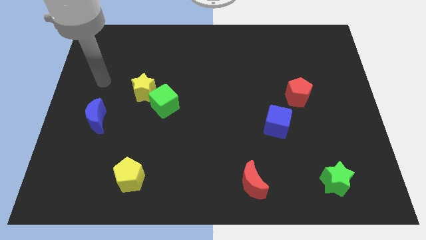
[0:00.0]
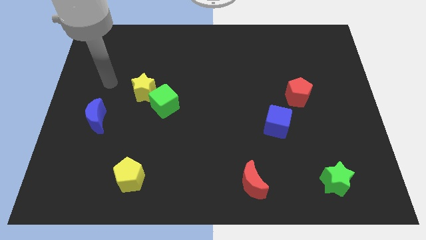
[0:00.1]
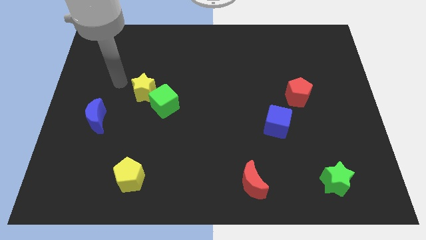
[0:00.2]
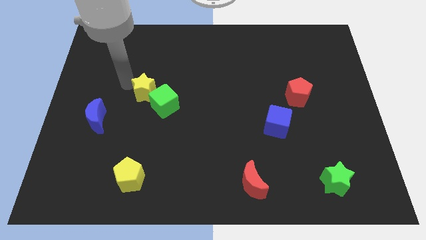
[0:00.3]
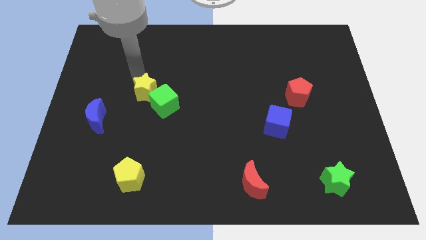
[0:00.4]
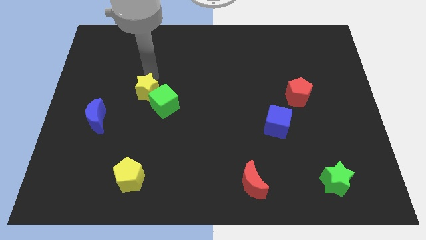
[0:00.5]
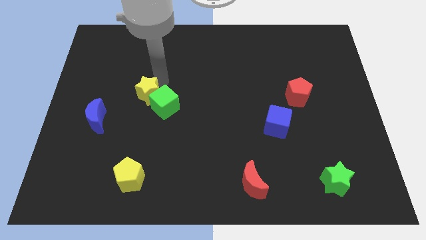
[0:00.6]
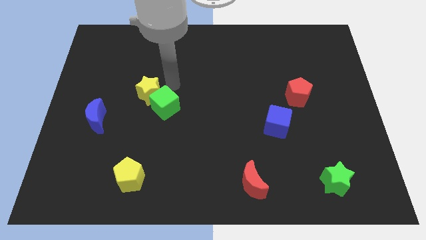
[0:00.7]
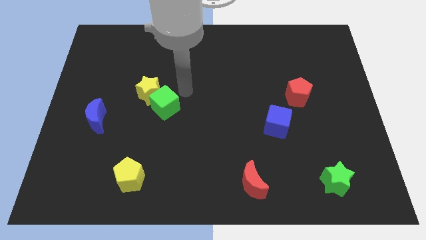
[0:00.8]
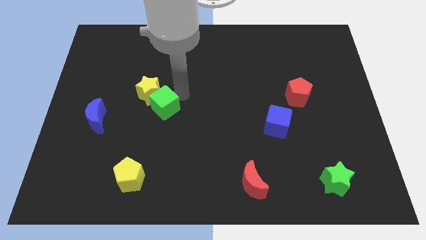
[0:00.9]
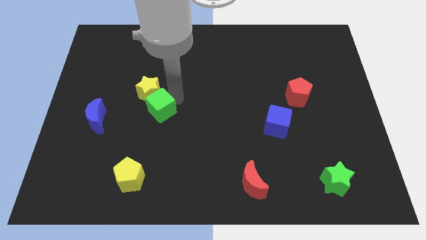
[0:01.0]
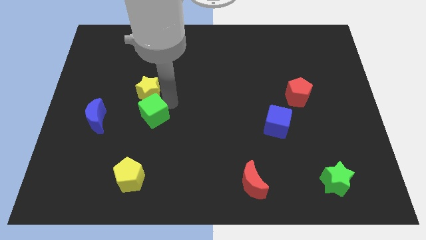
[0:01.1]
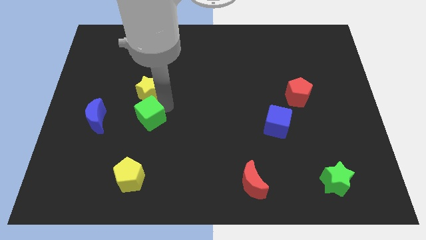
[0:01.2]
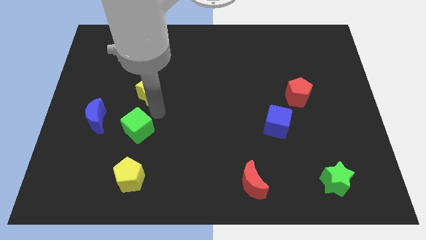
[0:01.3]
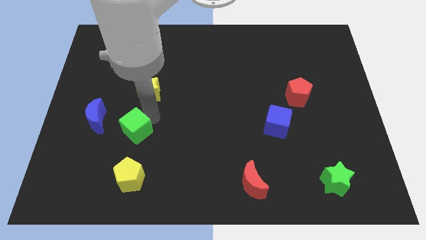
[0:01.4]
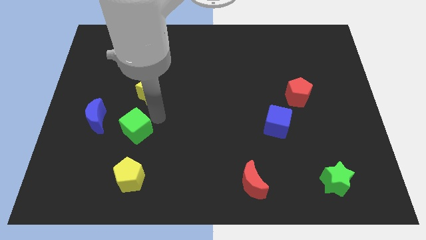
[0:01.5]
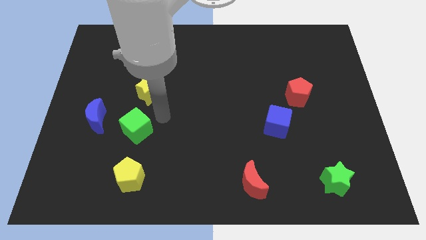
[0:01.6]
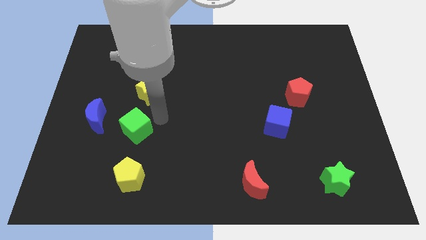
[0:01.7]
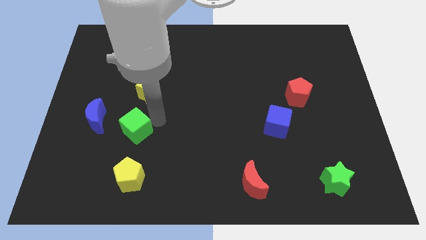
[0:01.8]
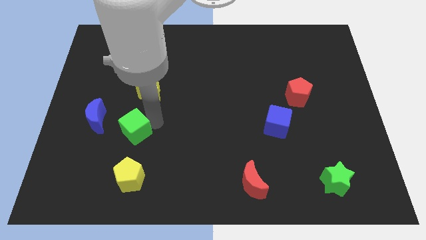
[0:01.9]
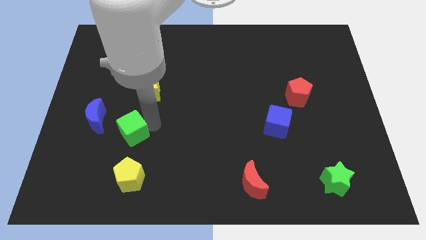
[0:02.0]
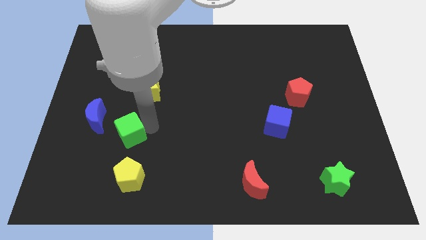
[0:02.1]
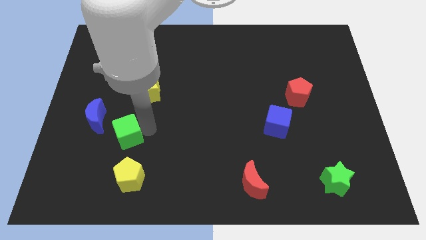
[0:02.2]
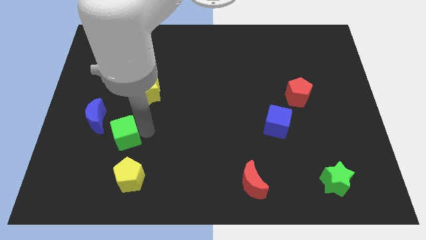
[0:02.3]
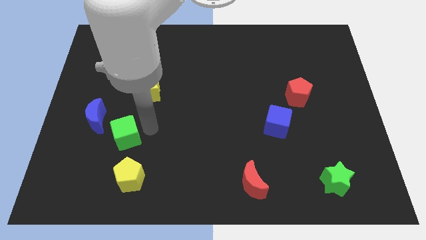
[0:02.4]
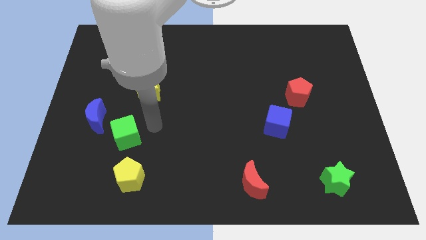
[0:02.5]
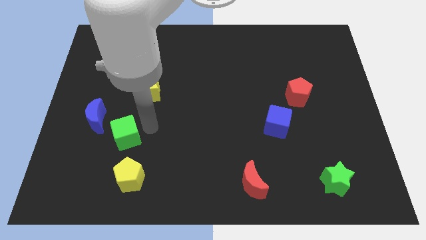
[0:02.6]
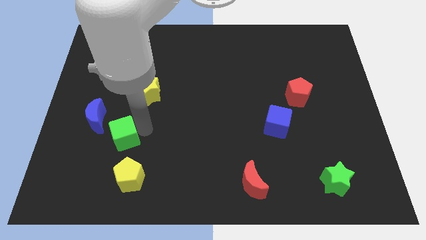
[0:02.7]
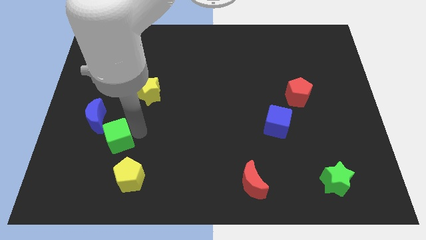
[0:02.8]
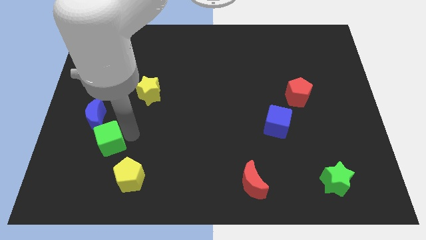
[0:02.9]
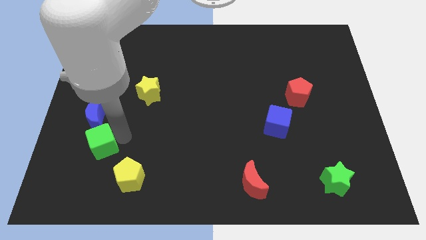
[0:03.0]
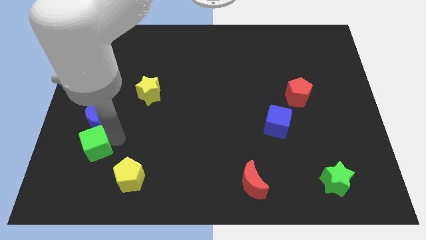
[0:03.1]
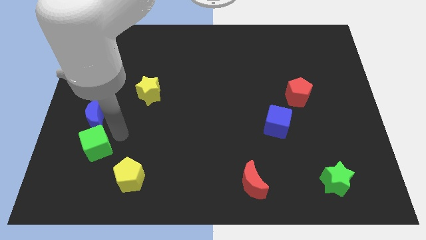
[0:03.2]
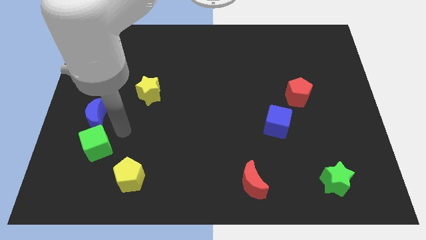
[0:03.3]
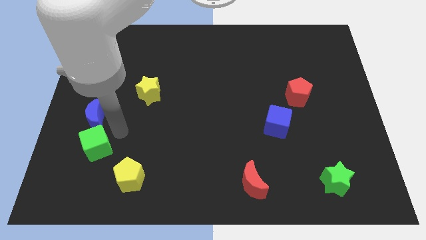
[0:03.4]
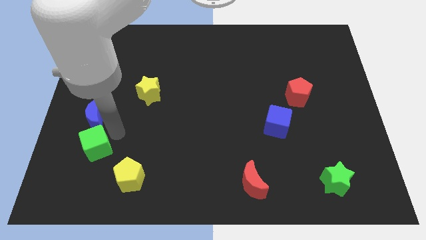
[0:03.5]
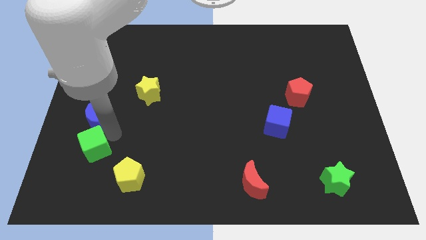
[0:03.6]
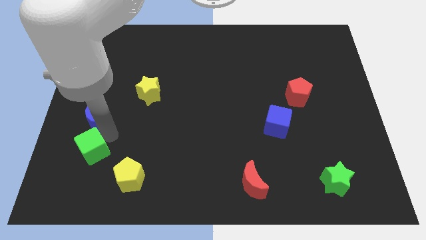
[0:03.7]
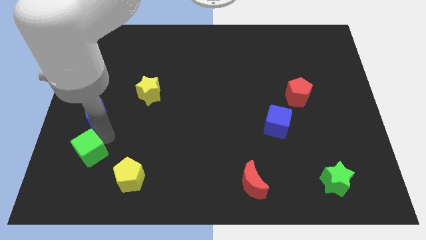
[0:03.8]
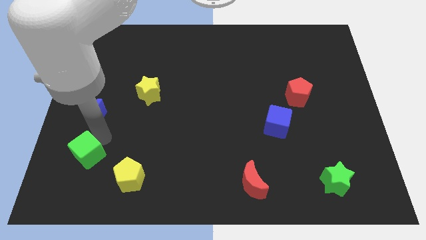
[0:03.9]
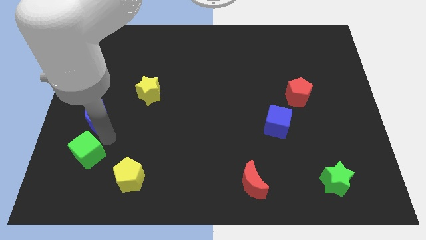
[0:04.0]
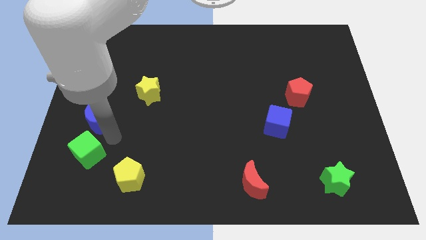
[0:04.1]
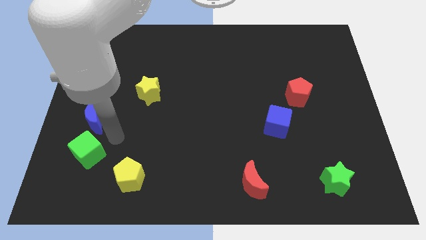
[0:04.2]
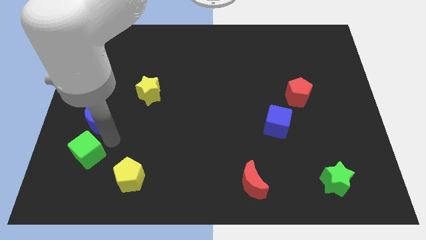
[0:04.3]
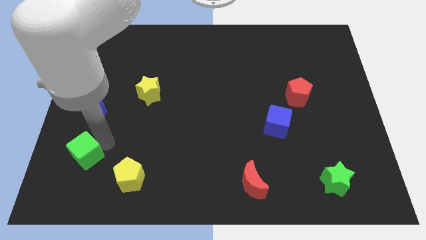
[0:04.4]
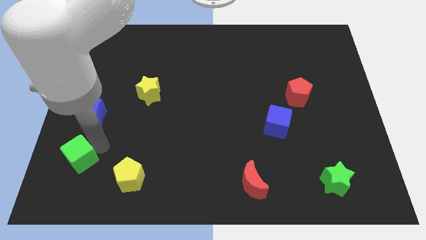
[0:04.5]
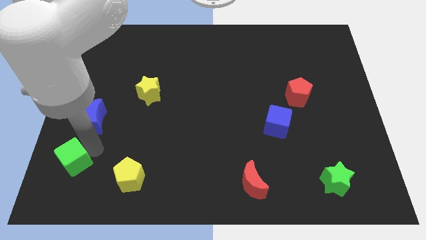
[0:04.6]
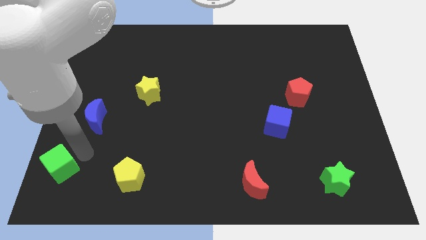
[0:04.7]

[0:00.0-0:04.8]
move the green cube to the bottom left of the board

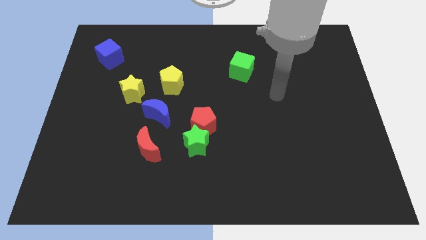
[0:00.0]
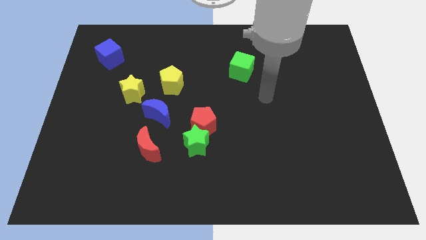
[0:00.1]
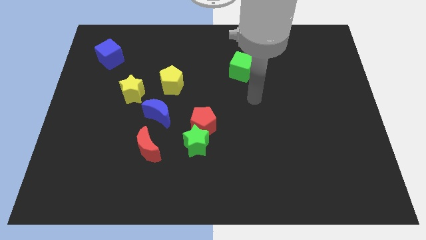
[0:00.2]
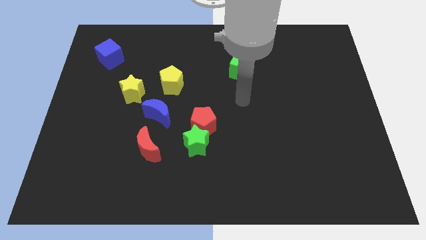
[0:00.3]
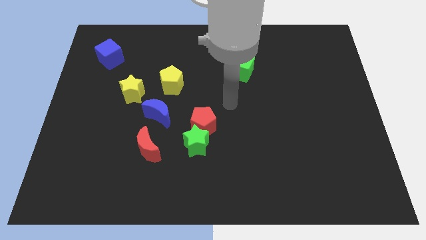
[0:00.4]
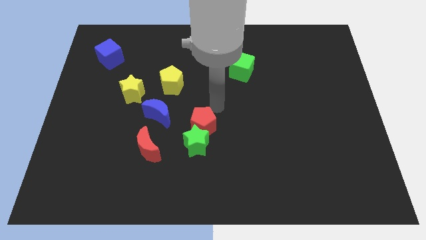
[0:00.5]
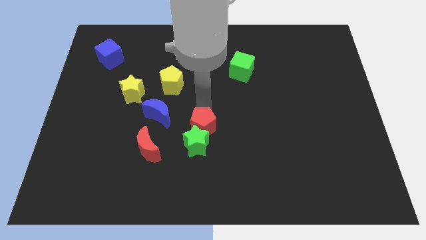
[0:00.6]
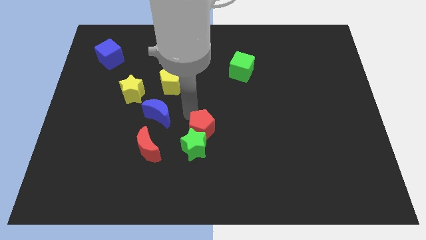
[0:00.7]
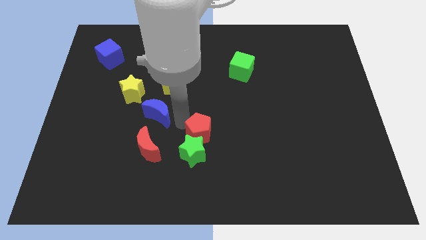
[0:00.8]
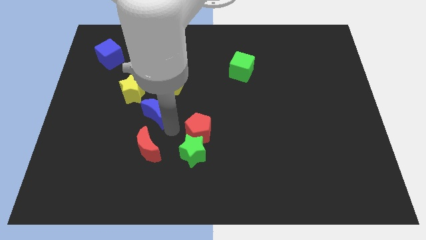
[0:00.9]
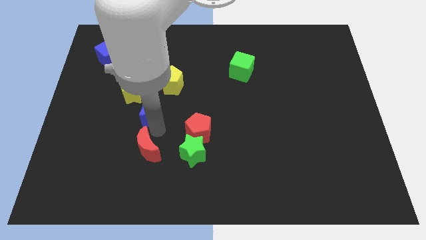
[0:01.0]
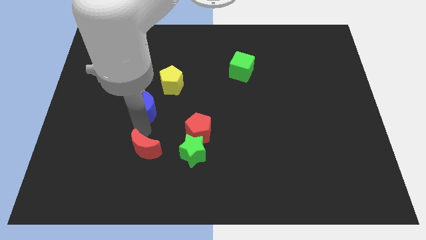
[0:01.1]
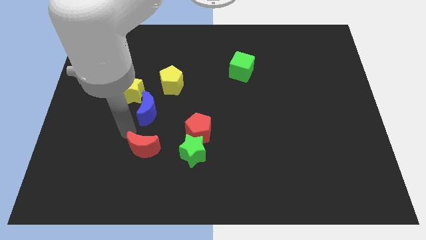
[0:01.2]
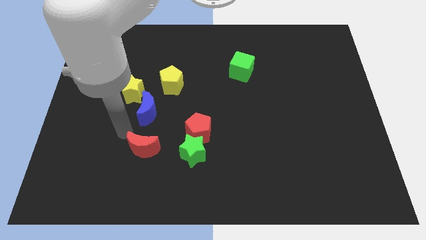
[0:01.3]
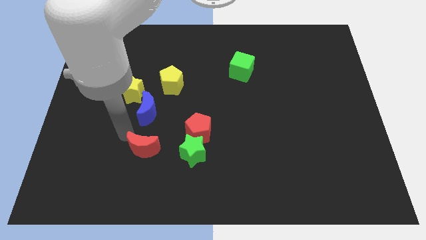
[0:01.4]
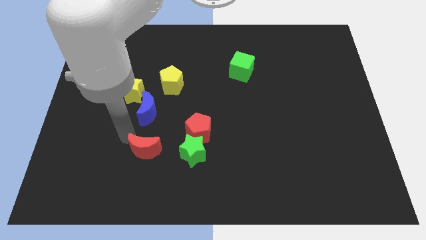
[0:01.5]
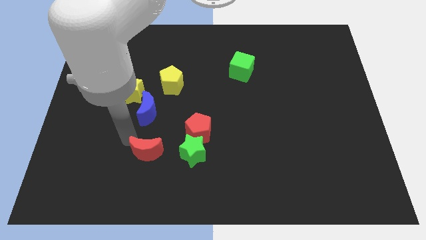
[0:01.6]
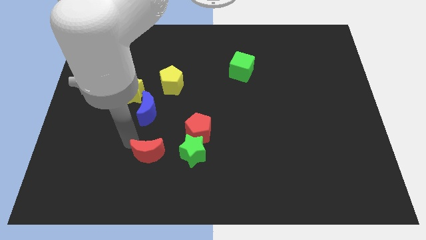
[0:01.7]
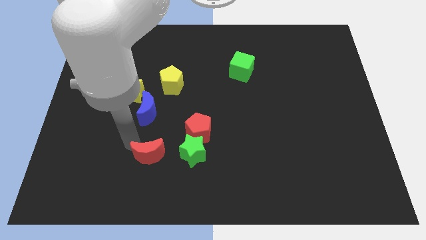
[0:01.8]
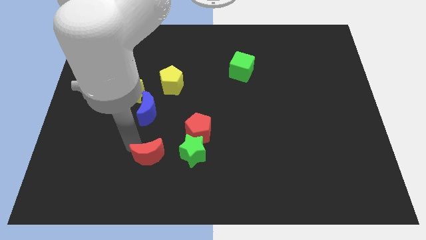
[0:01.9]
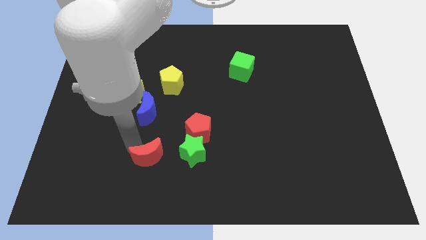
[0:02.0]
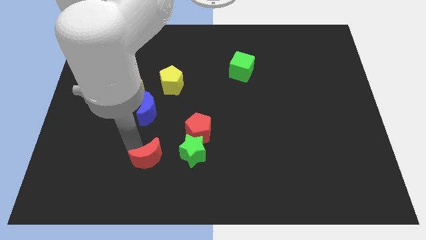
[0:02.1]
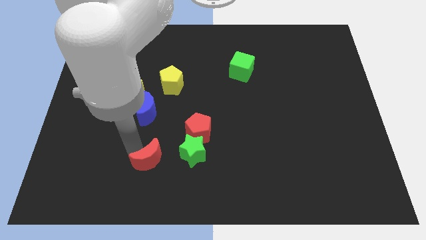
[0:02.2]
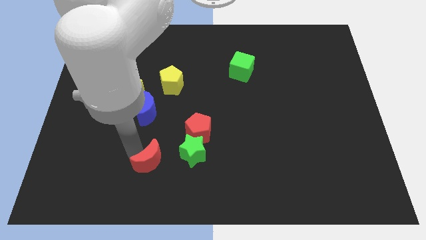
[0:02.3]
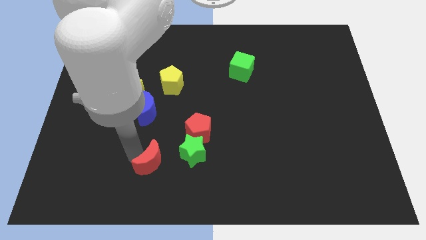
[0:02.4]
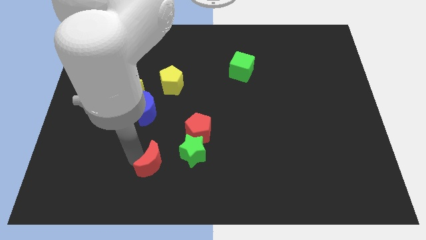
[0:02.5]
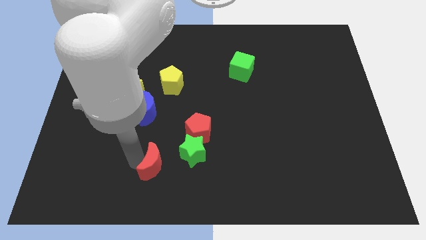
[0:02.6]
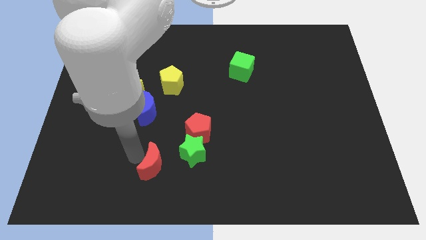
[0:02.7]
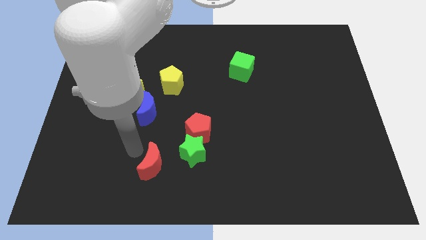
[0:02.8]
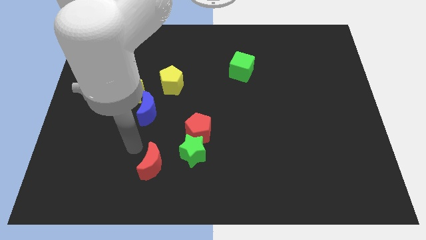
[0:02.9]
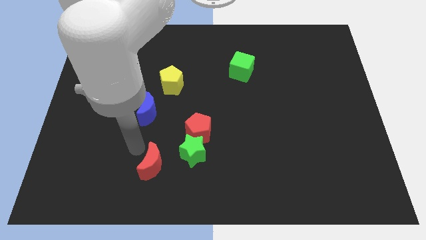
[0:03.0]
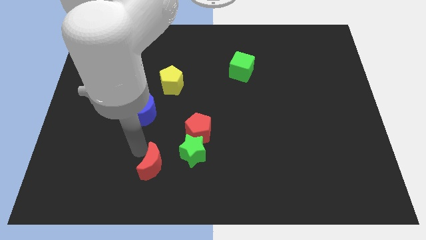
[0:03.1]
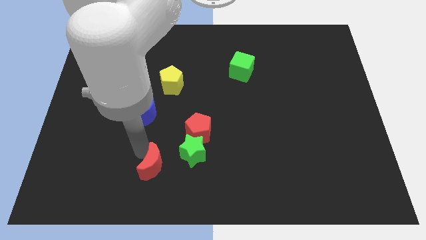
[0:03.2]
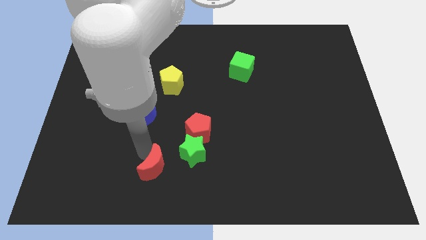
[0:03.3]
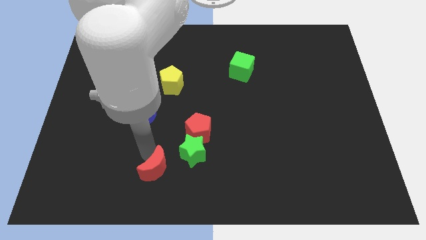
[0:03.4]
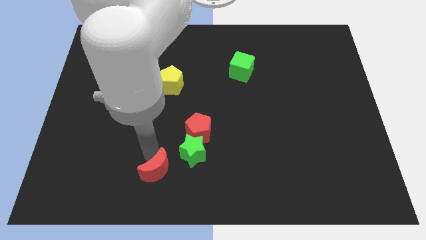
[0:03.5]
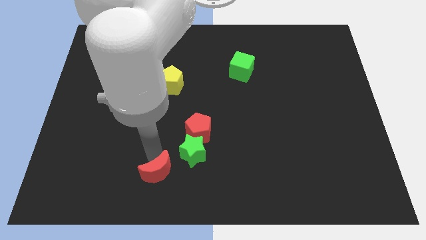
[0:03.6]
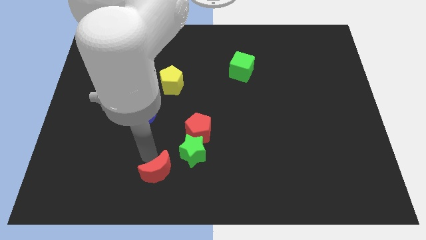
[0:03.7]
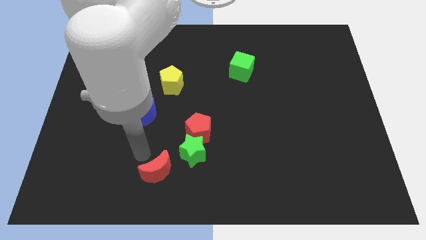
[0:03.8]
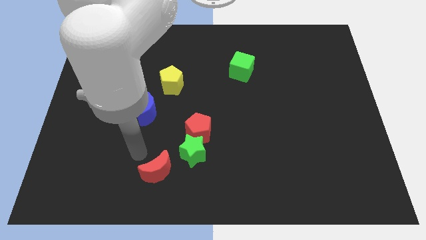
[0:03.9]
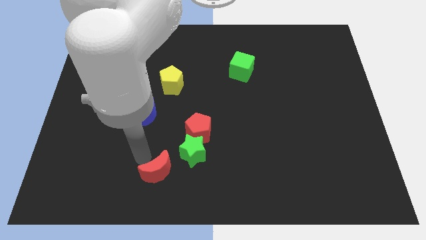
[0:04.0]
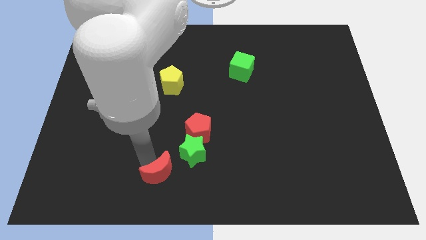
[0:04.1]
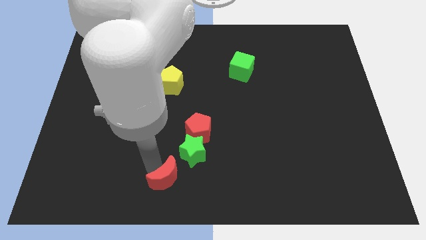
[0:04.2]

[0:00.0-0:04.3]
slide the red moon to the bottom side
